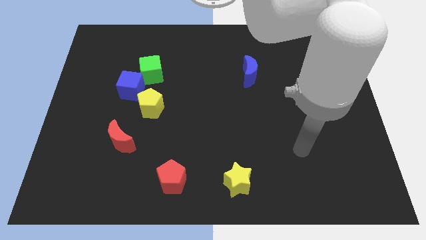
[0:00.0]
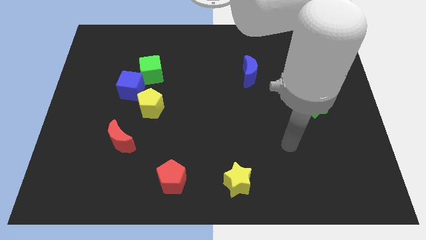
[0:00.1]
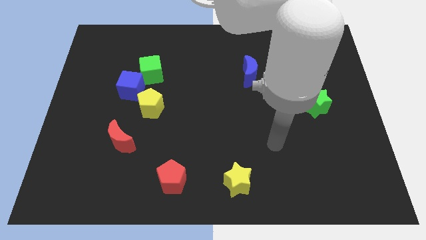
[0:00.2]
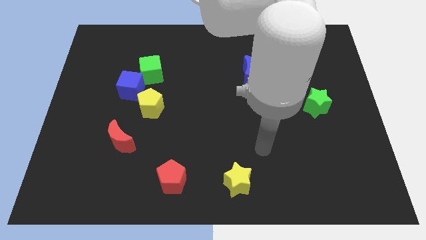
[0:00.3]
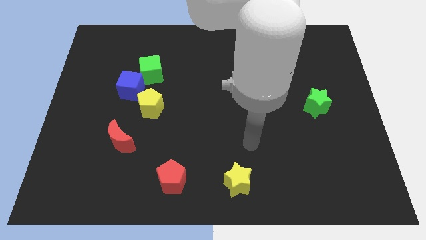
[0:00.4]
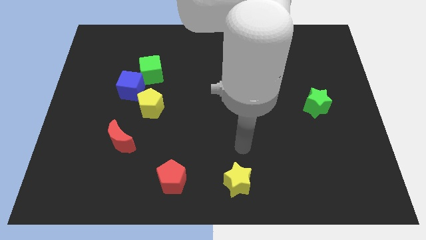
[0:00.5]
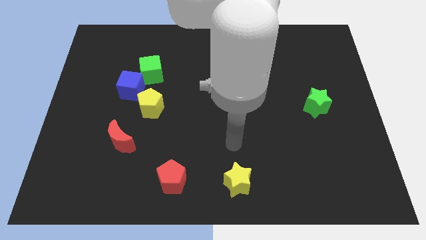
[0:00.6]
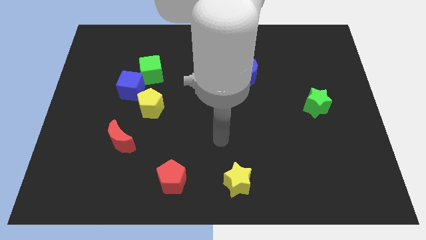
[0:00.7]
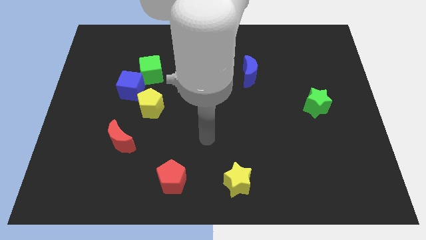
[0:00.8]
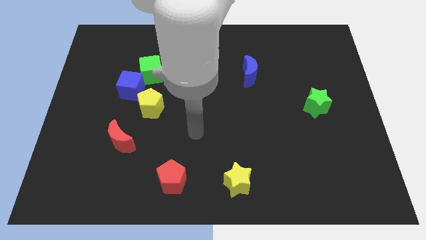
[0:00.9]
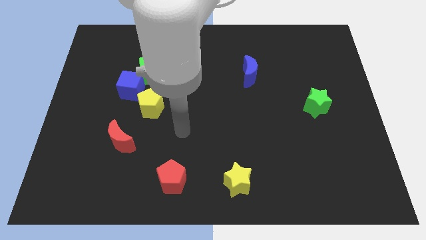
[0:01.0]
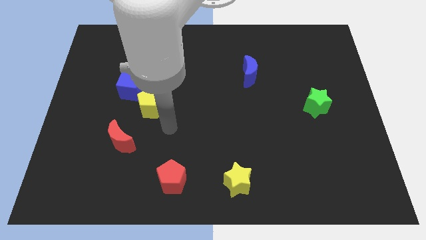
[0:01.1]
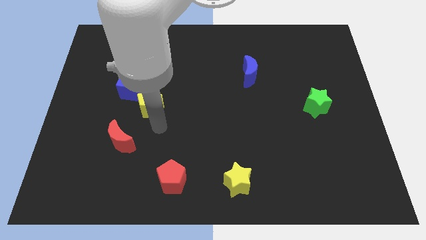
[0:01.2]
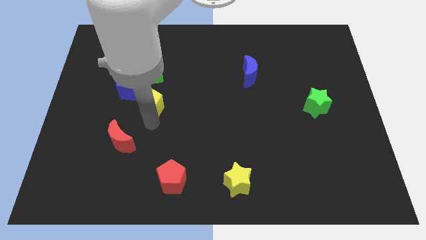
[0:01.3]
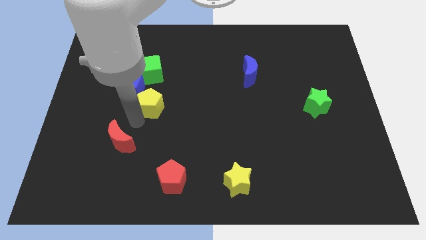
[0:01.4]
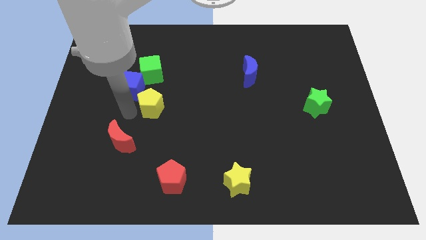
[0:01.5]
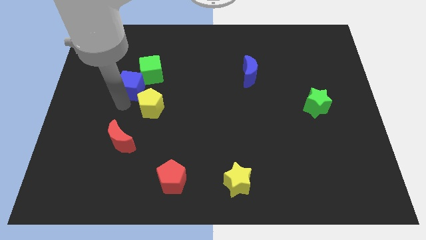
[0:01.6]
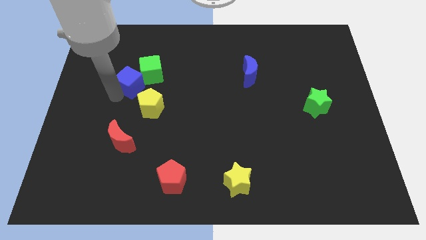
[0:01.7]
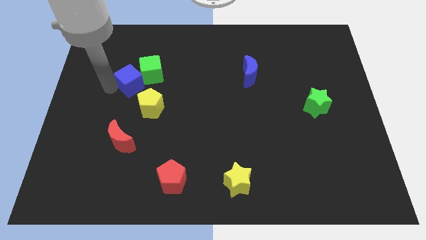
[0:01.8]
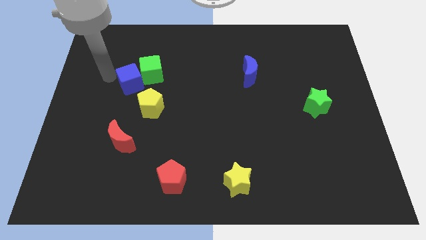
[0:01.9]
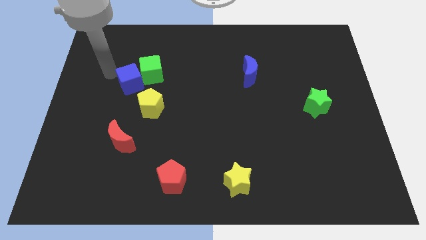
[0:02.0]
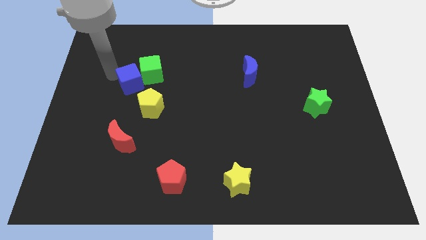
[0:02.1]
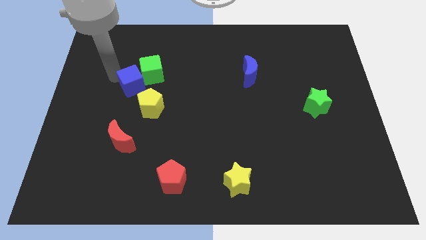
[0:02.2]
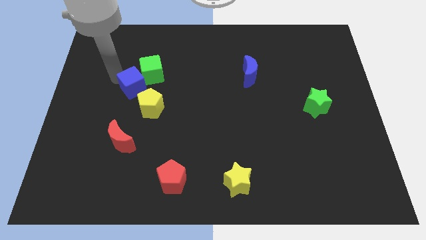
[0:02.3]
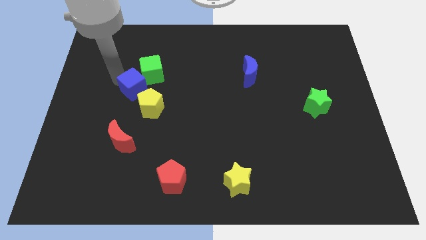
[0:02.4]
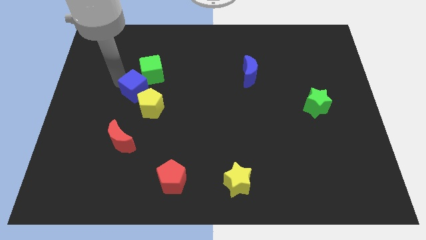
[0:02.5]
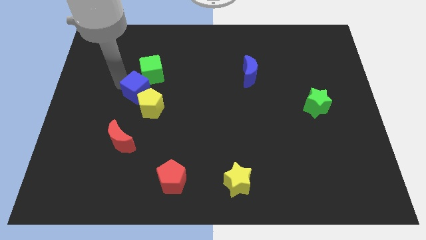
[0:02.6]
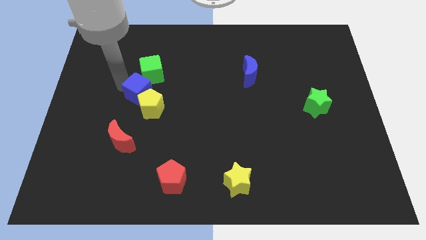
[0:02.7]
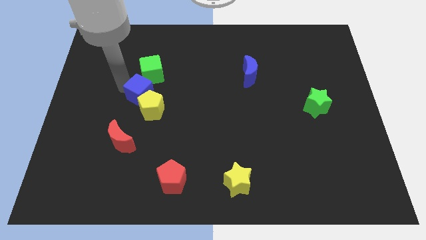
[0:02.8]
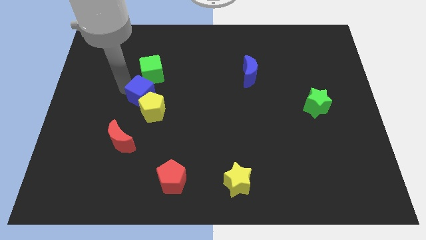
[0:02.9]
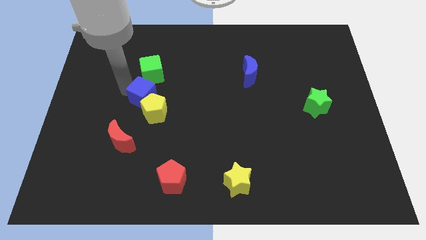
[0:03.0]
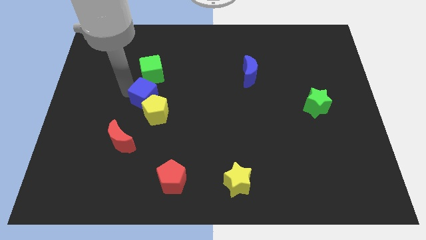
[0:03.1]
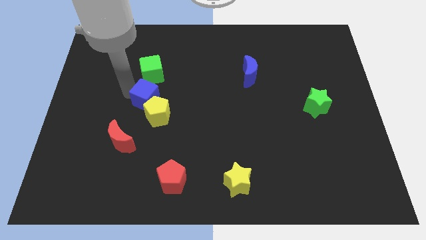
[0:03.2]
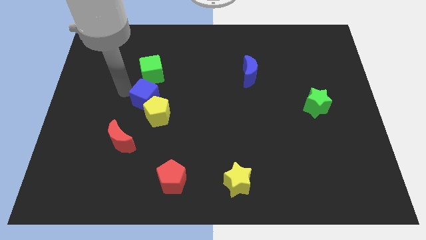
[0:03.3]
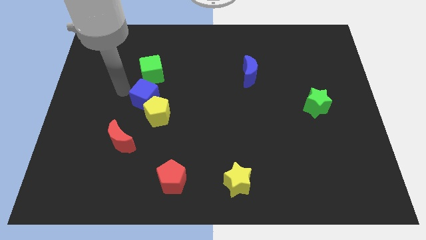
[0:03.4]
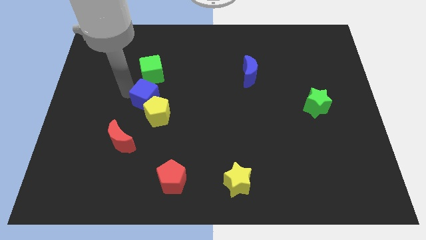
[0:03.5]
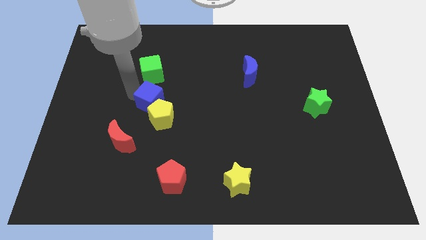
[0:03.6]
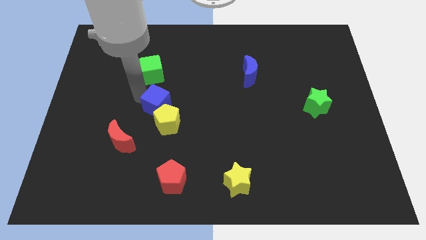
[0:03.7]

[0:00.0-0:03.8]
slide the blue cube a bit downwards and then to the right

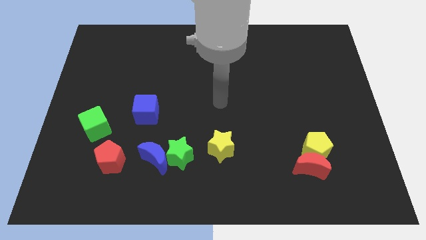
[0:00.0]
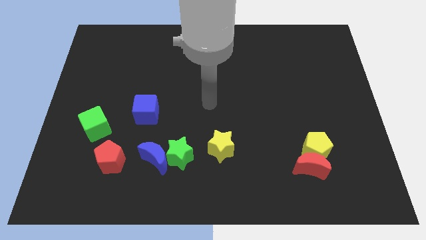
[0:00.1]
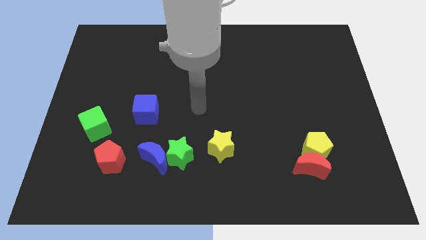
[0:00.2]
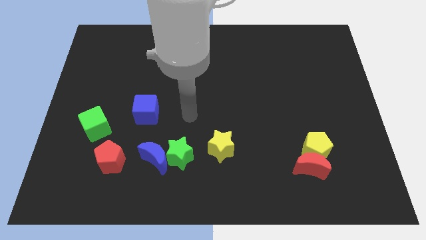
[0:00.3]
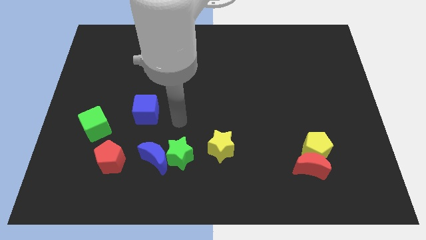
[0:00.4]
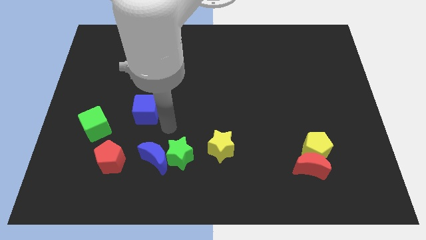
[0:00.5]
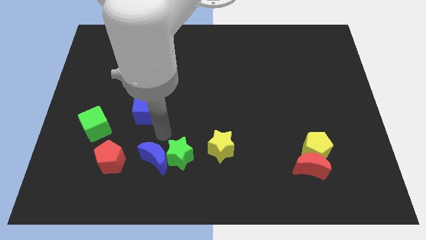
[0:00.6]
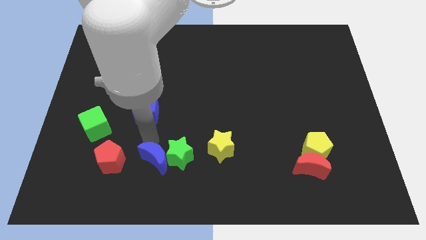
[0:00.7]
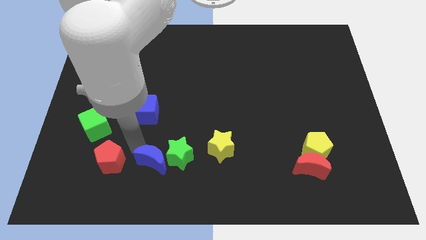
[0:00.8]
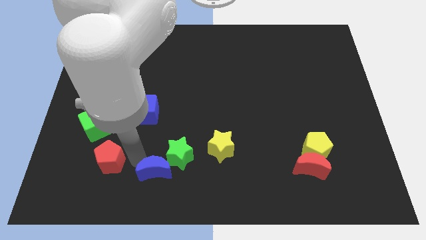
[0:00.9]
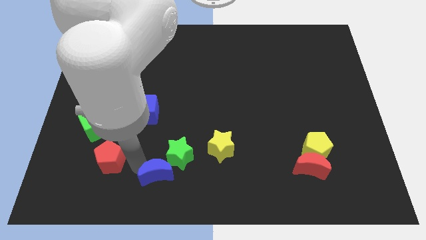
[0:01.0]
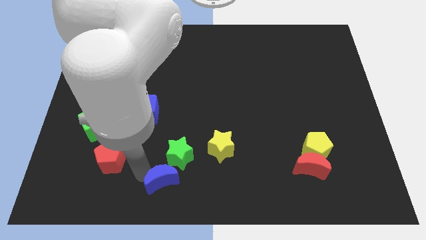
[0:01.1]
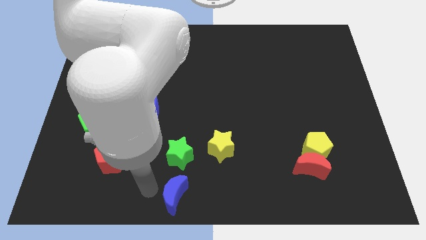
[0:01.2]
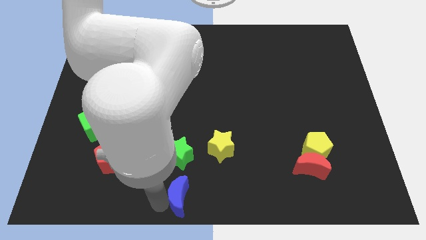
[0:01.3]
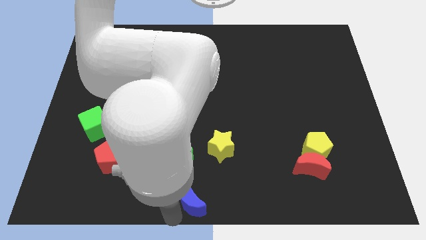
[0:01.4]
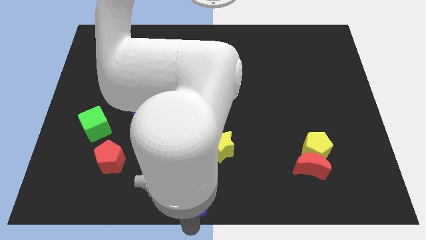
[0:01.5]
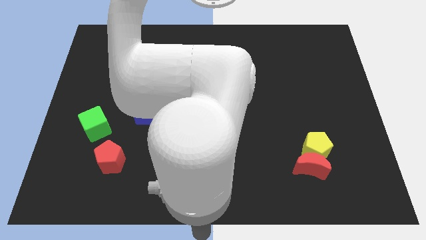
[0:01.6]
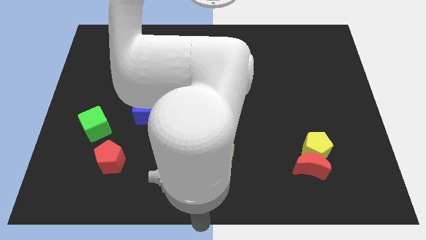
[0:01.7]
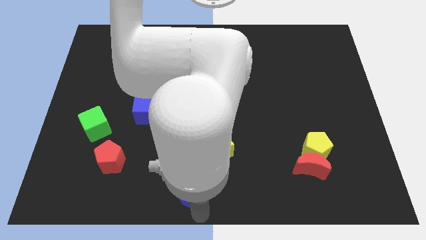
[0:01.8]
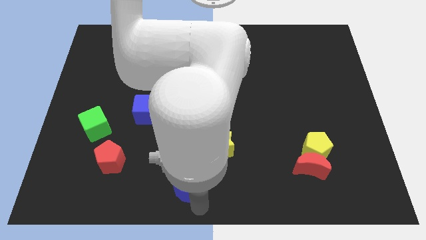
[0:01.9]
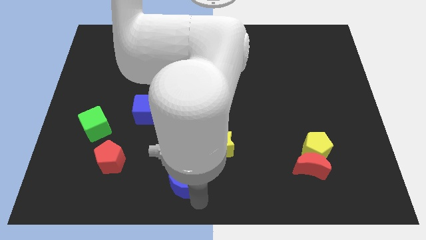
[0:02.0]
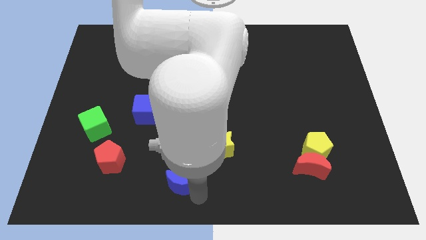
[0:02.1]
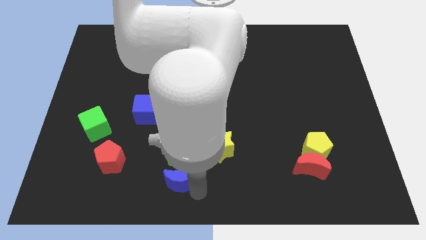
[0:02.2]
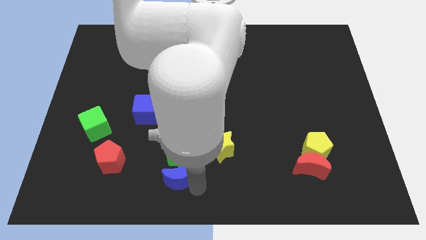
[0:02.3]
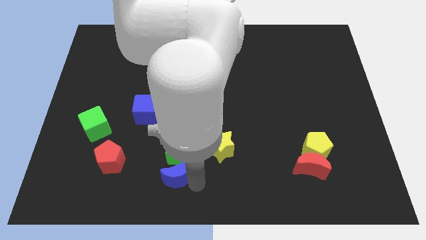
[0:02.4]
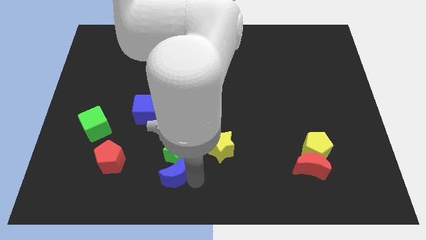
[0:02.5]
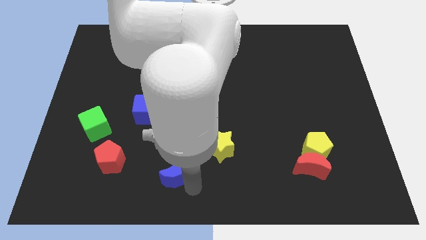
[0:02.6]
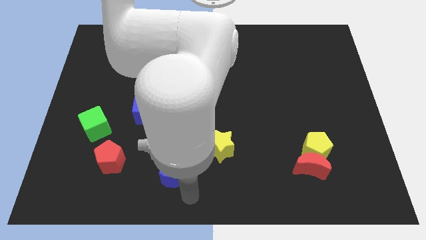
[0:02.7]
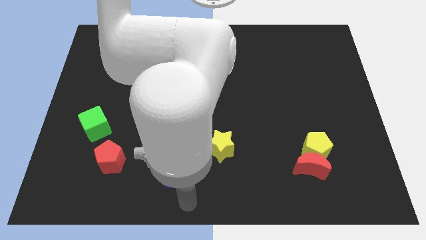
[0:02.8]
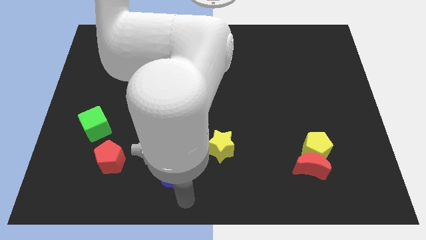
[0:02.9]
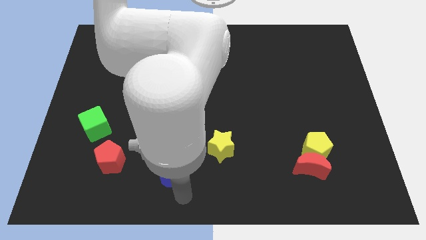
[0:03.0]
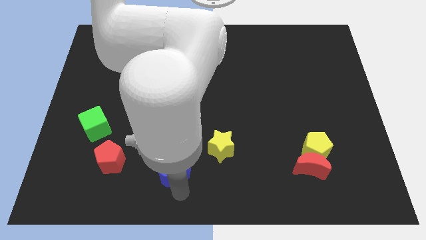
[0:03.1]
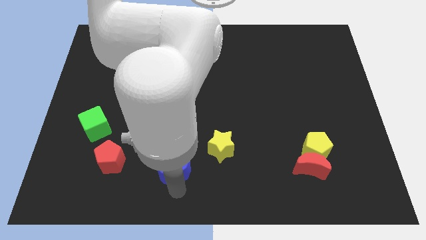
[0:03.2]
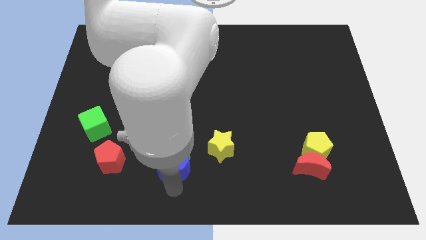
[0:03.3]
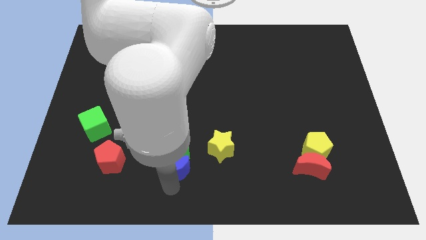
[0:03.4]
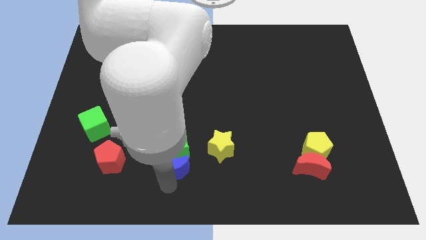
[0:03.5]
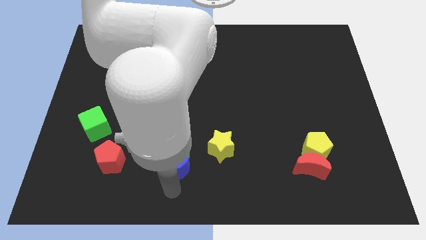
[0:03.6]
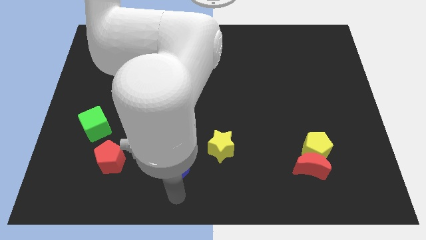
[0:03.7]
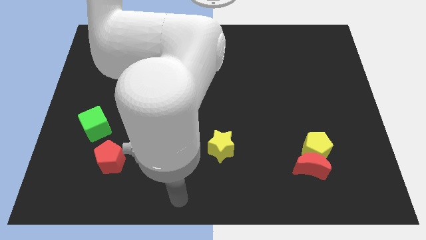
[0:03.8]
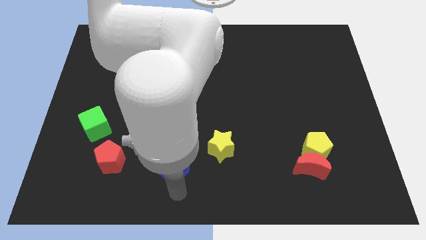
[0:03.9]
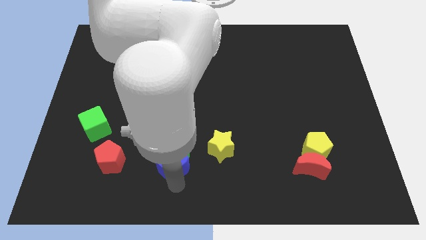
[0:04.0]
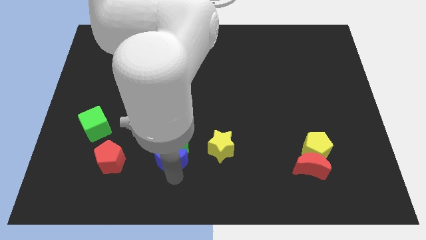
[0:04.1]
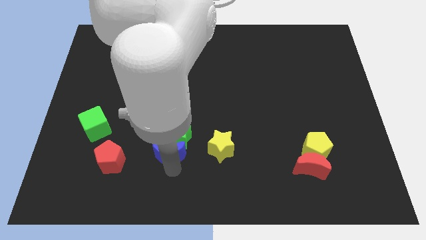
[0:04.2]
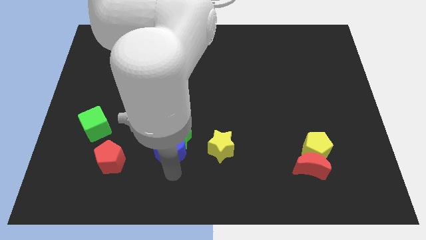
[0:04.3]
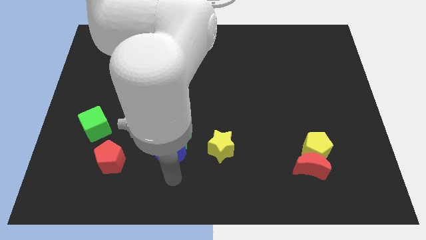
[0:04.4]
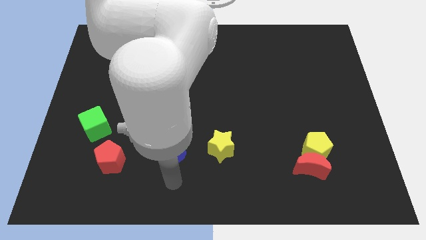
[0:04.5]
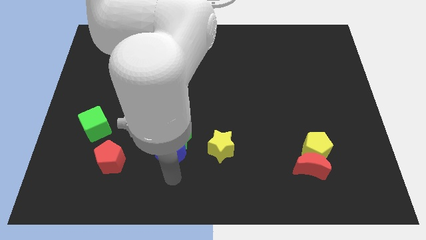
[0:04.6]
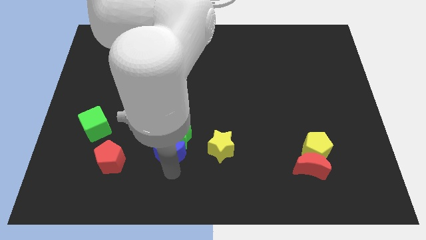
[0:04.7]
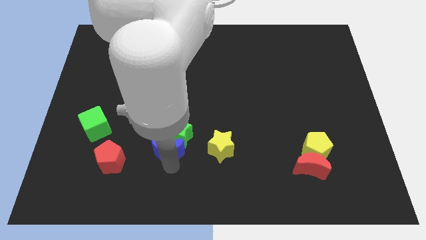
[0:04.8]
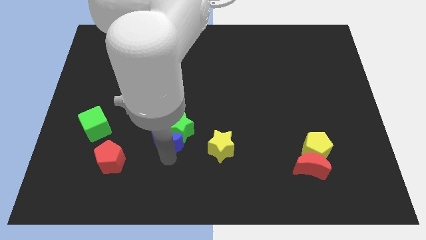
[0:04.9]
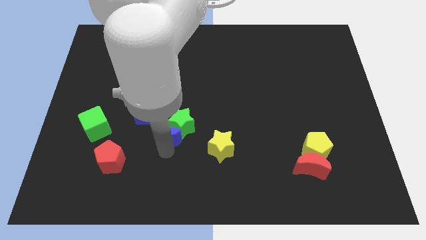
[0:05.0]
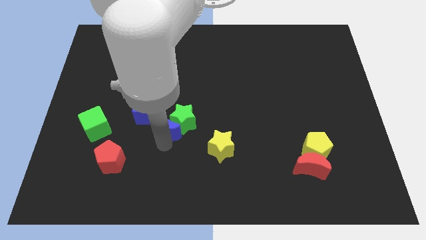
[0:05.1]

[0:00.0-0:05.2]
push the blue moon up a little bit
